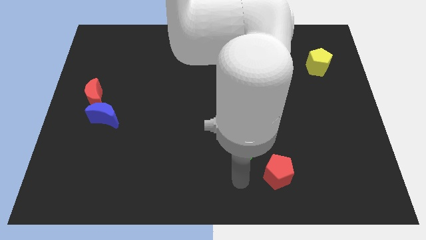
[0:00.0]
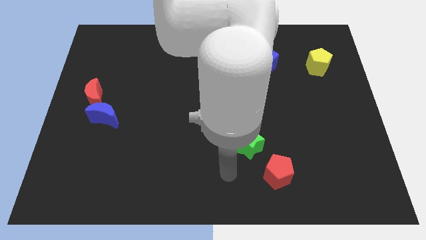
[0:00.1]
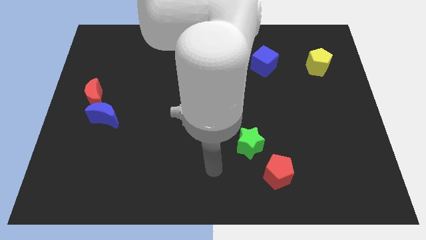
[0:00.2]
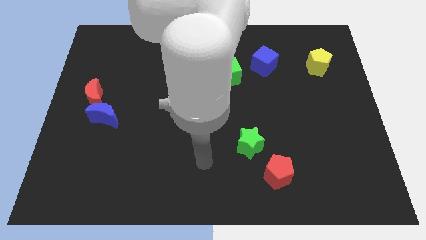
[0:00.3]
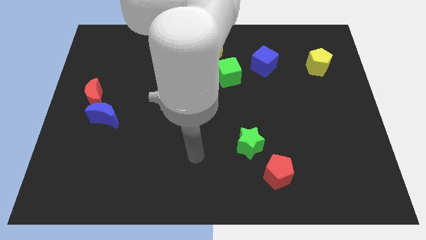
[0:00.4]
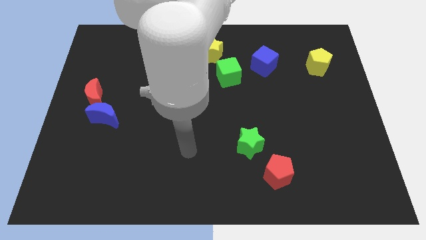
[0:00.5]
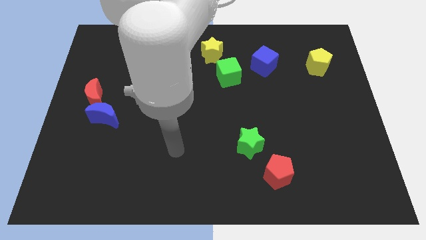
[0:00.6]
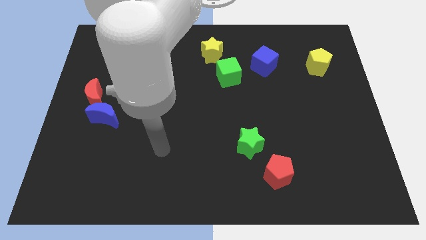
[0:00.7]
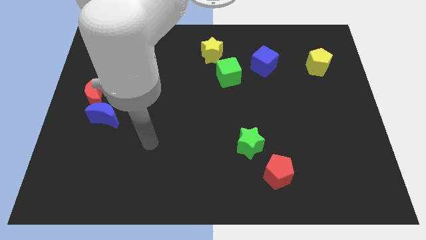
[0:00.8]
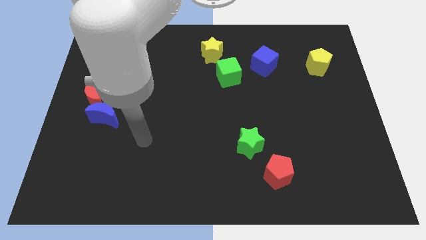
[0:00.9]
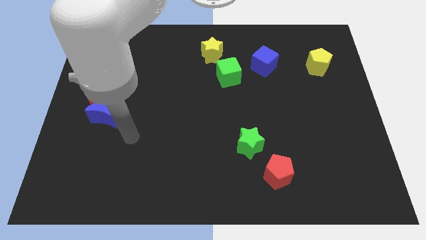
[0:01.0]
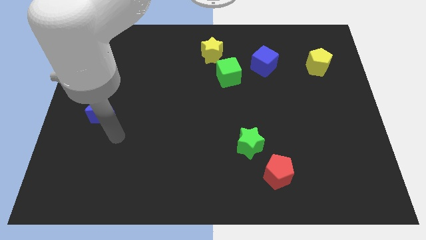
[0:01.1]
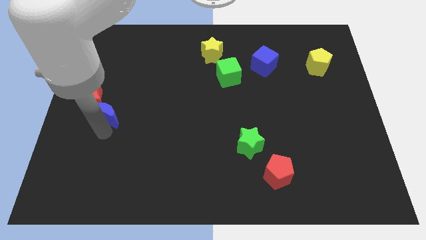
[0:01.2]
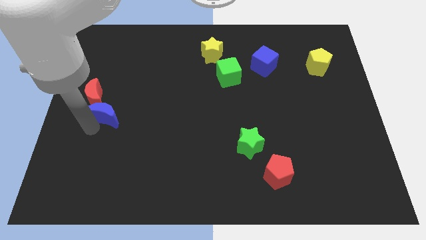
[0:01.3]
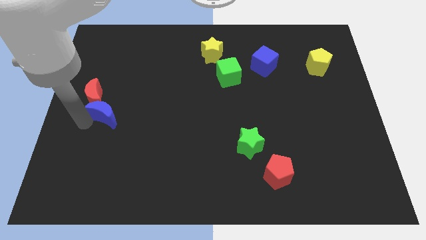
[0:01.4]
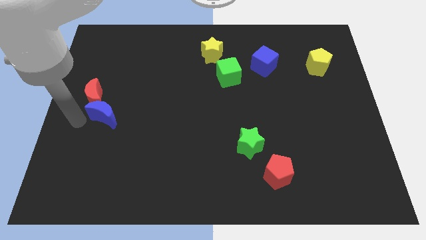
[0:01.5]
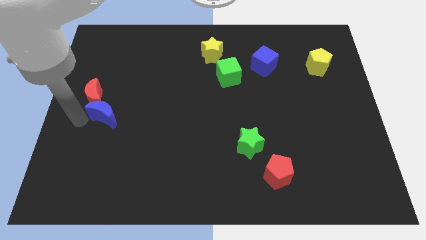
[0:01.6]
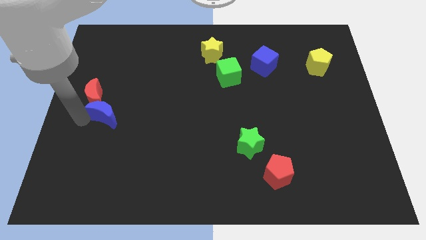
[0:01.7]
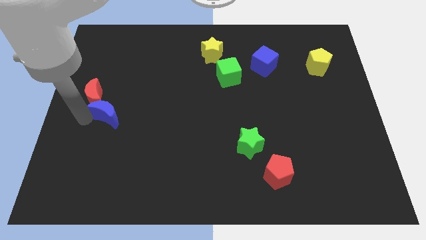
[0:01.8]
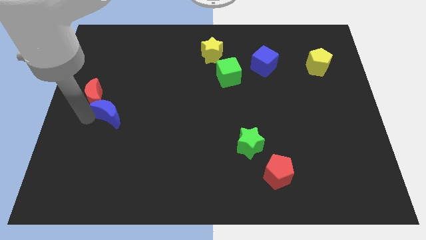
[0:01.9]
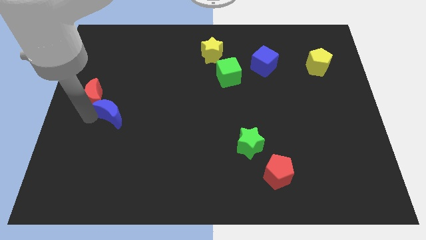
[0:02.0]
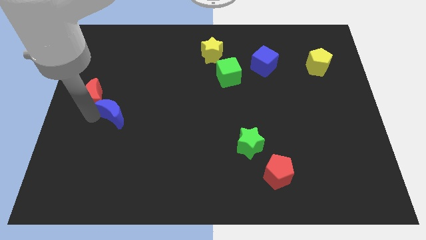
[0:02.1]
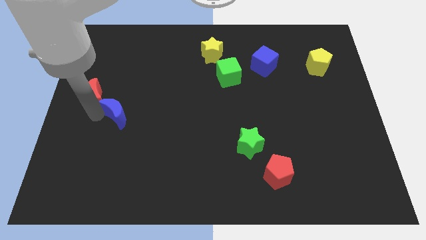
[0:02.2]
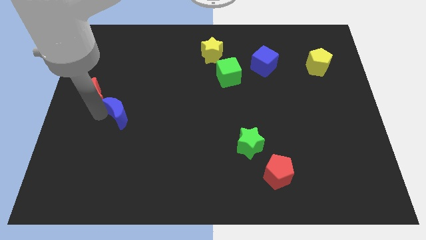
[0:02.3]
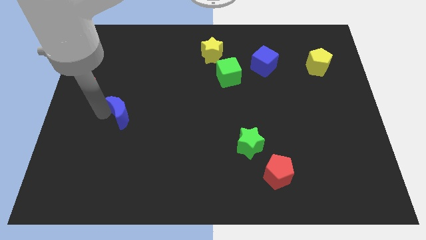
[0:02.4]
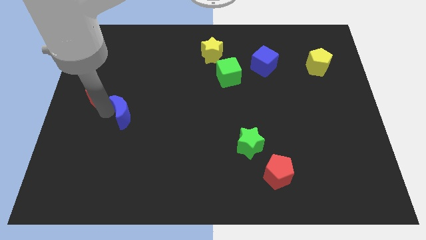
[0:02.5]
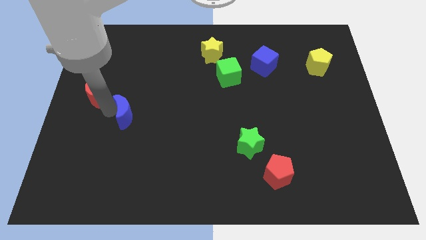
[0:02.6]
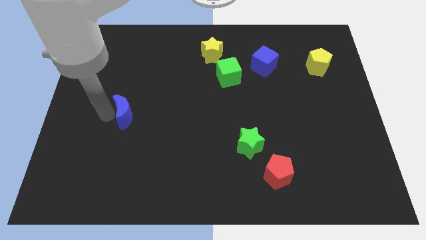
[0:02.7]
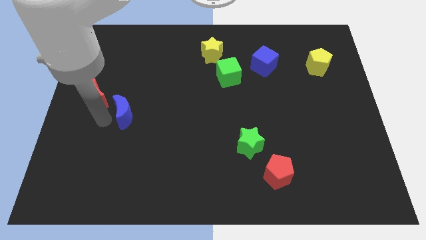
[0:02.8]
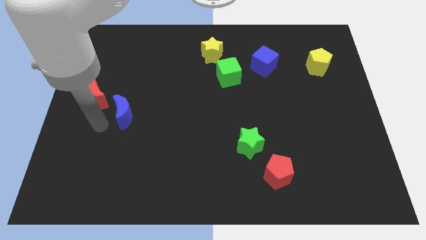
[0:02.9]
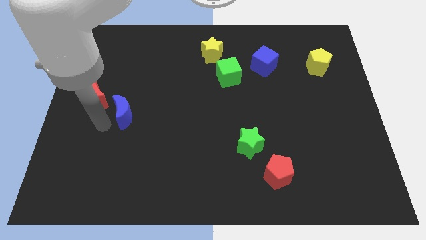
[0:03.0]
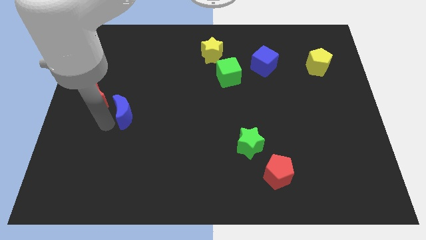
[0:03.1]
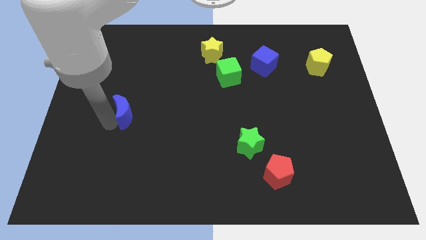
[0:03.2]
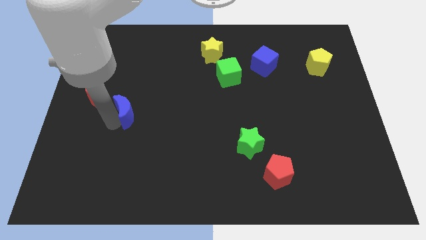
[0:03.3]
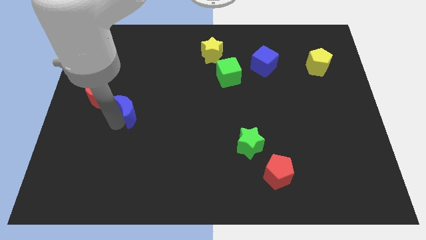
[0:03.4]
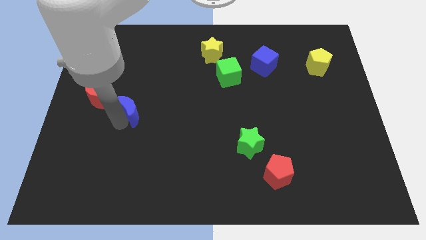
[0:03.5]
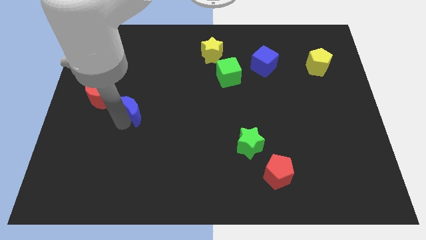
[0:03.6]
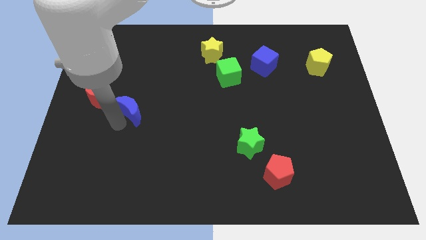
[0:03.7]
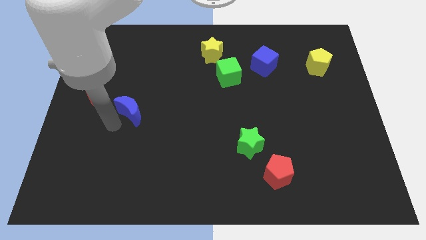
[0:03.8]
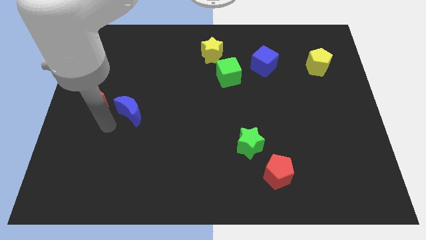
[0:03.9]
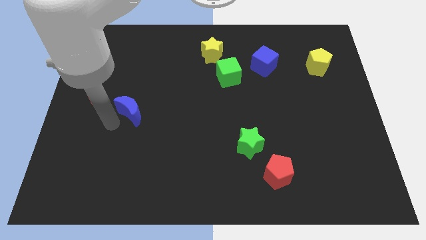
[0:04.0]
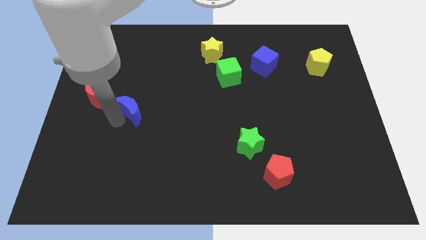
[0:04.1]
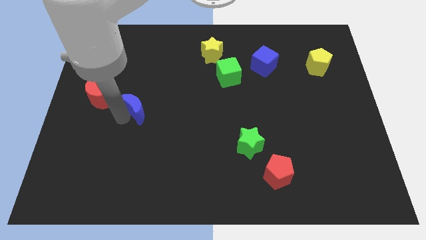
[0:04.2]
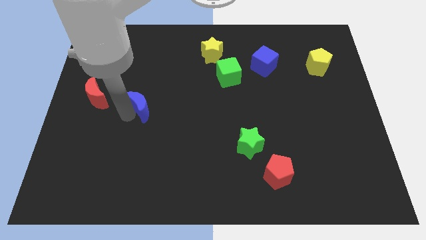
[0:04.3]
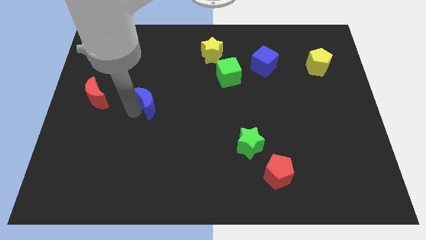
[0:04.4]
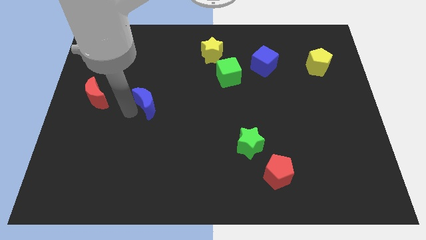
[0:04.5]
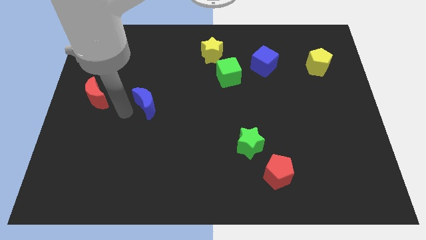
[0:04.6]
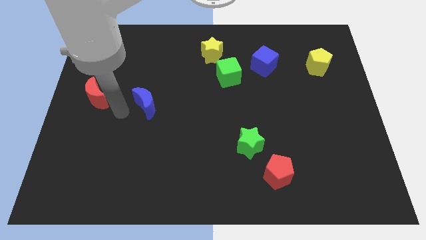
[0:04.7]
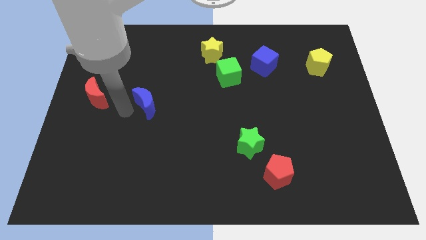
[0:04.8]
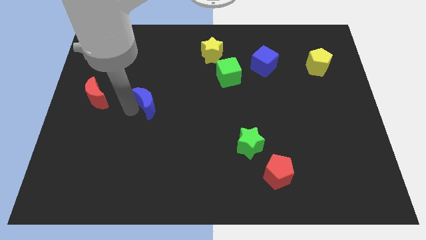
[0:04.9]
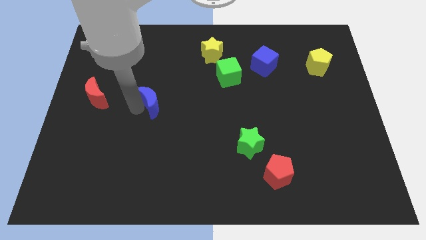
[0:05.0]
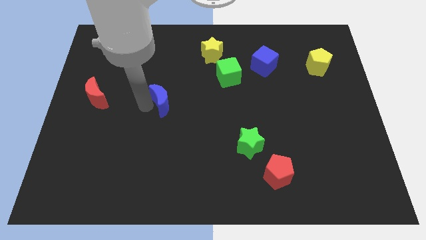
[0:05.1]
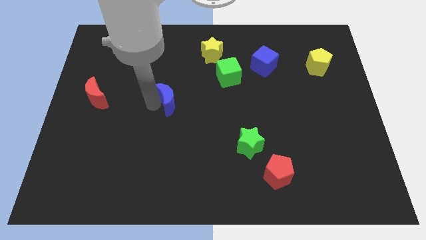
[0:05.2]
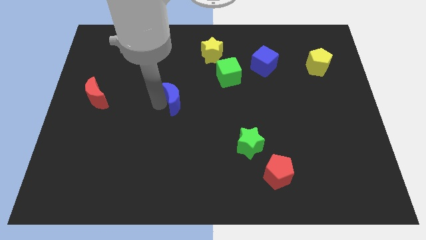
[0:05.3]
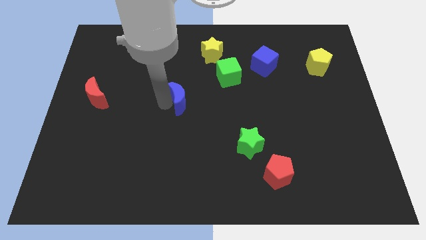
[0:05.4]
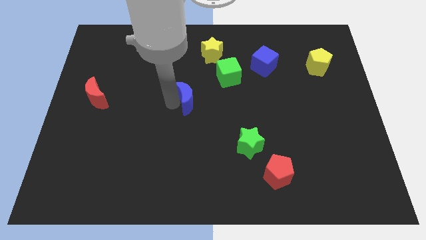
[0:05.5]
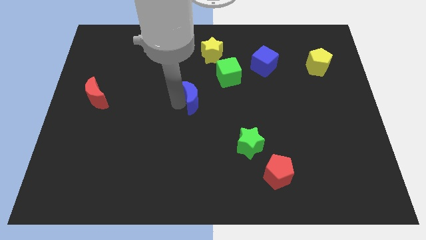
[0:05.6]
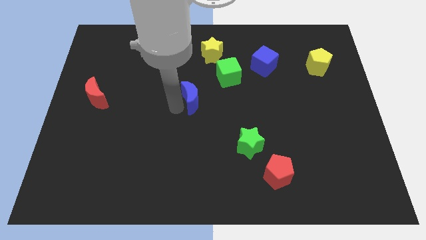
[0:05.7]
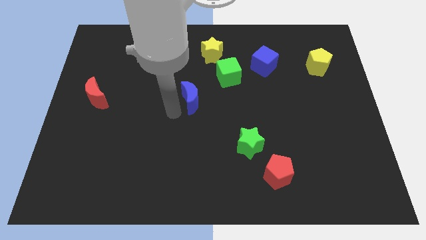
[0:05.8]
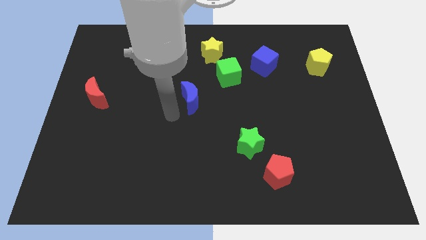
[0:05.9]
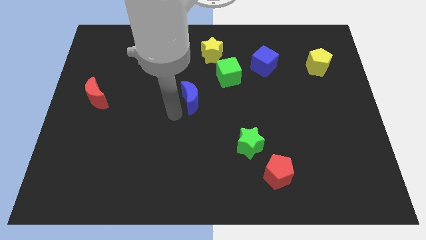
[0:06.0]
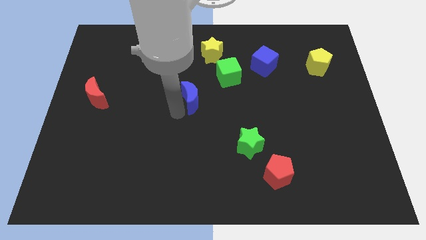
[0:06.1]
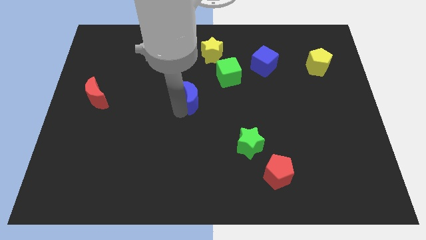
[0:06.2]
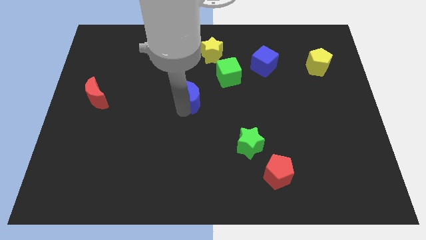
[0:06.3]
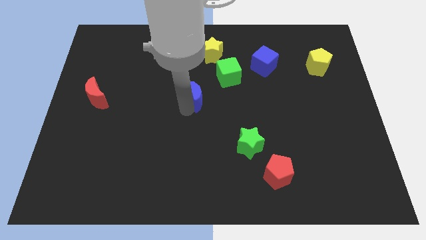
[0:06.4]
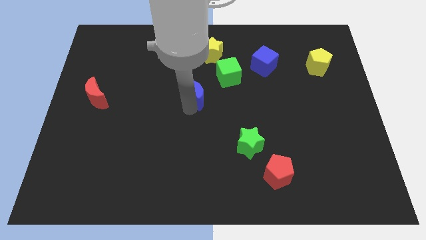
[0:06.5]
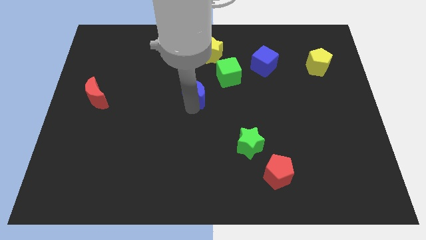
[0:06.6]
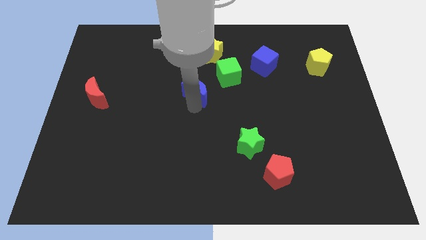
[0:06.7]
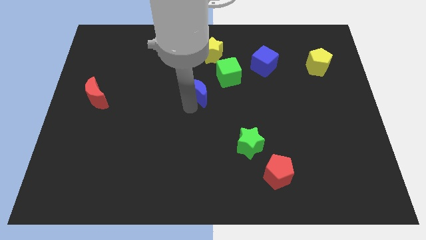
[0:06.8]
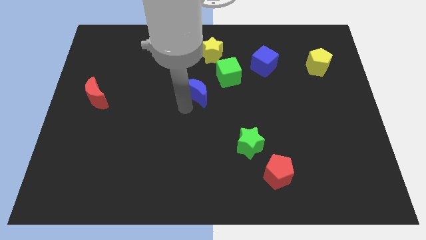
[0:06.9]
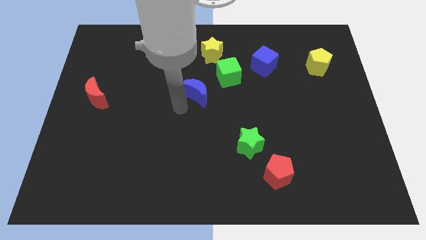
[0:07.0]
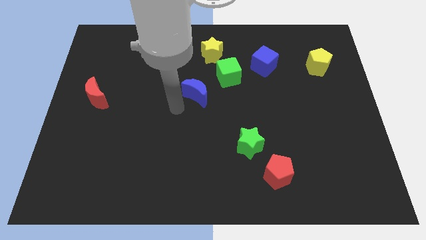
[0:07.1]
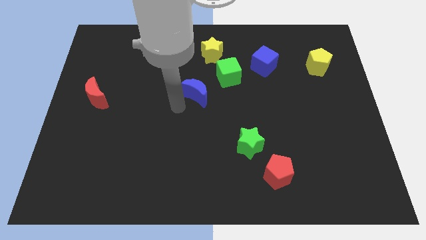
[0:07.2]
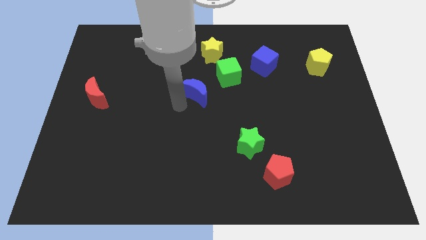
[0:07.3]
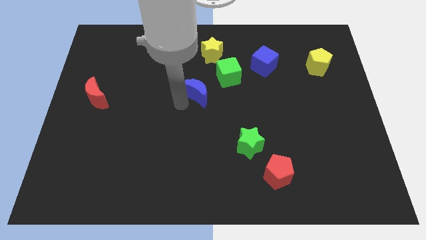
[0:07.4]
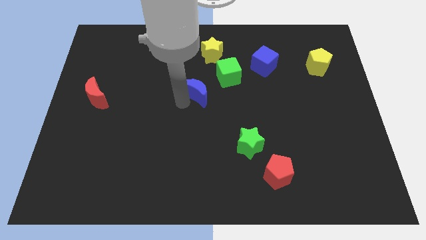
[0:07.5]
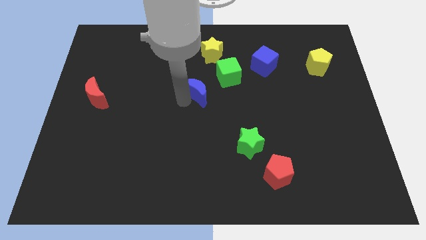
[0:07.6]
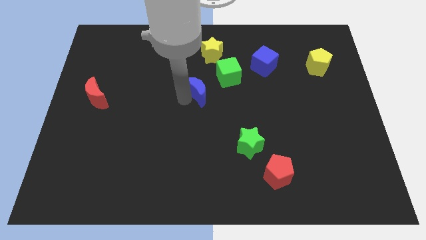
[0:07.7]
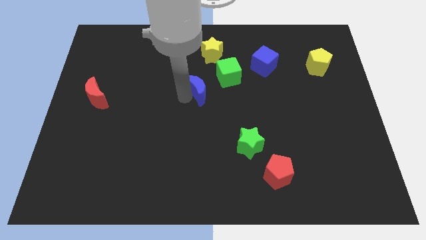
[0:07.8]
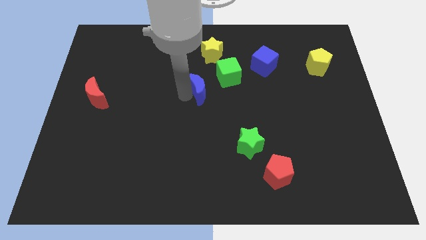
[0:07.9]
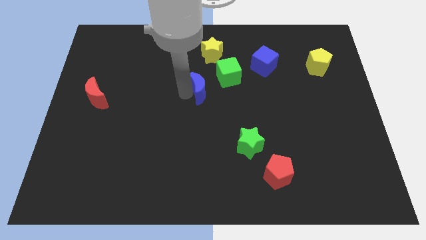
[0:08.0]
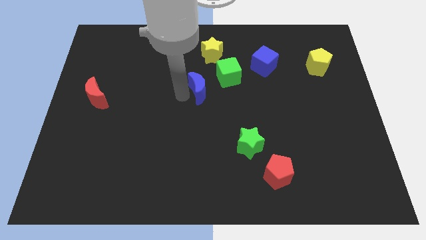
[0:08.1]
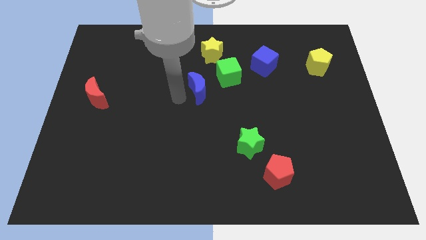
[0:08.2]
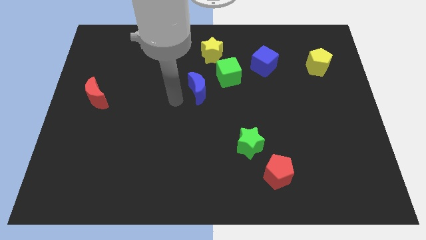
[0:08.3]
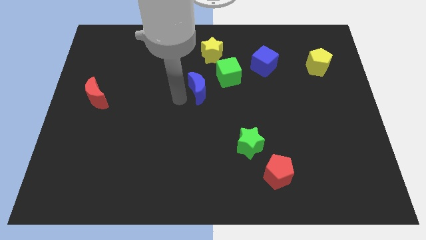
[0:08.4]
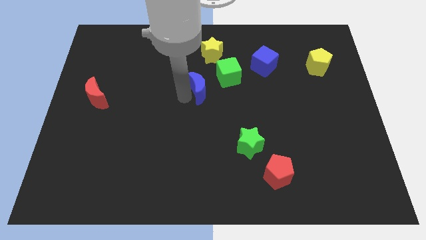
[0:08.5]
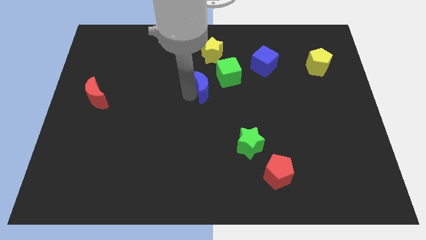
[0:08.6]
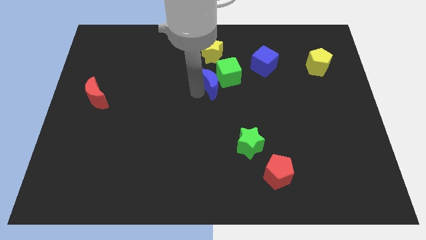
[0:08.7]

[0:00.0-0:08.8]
move the blue moon towards the green cube
